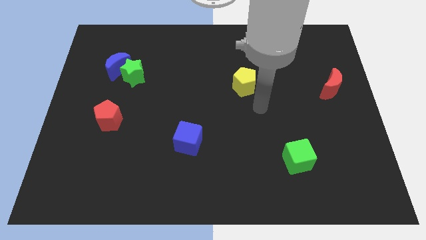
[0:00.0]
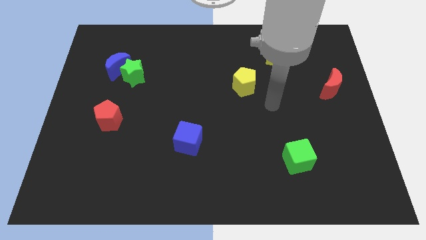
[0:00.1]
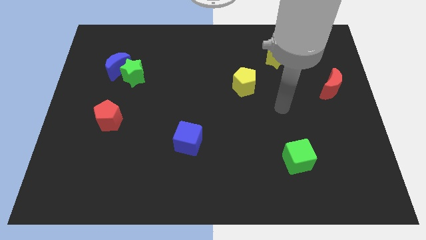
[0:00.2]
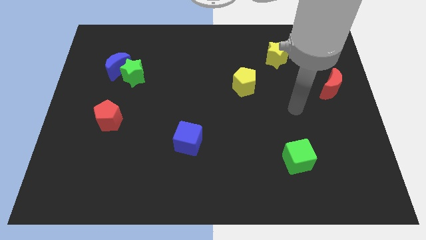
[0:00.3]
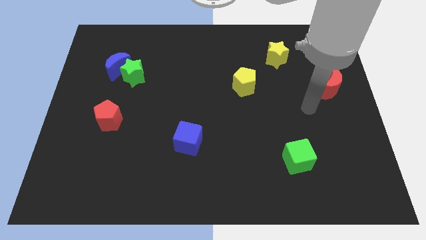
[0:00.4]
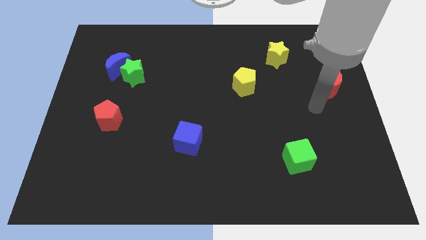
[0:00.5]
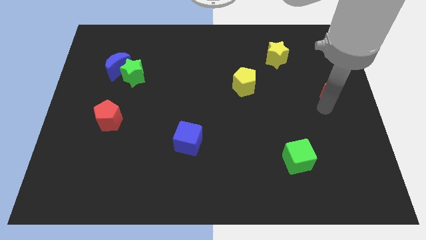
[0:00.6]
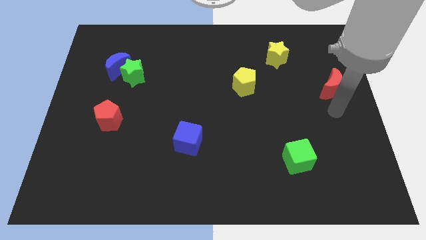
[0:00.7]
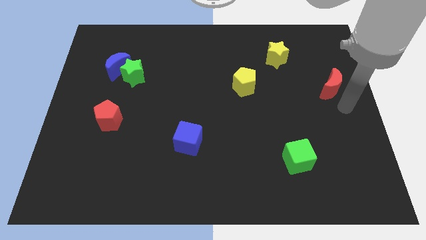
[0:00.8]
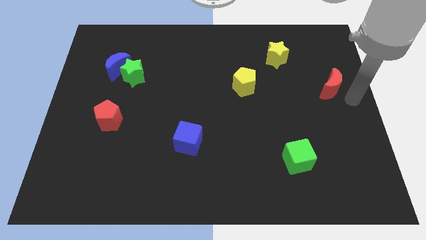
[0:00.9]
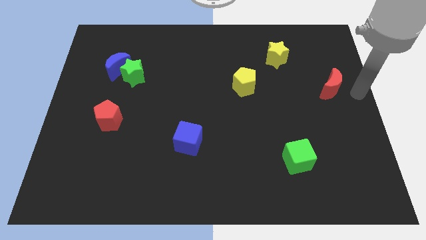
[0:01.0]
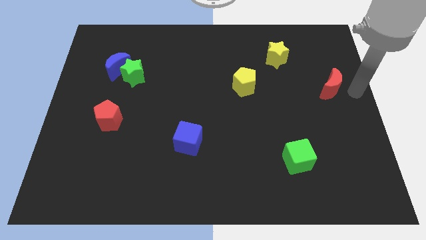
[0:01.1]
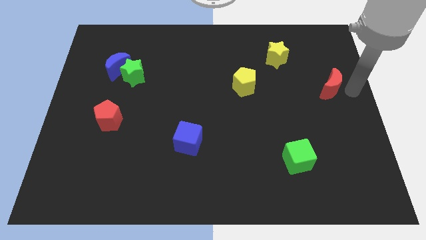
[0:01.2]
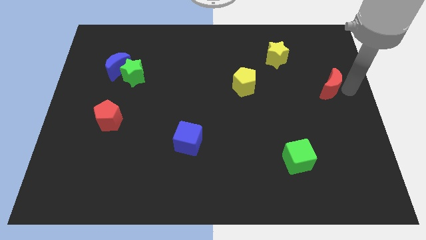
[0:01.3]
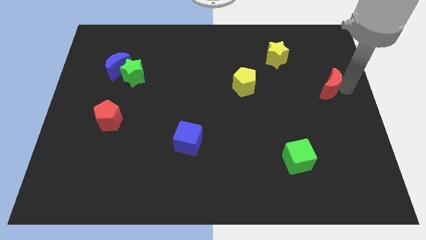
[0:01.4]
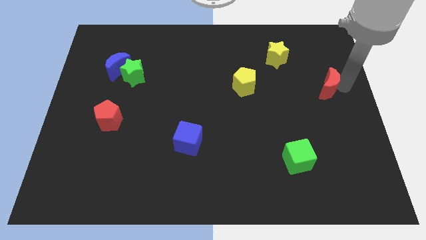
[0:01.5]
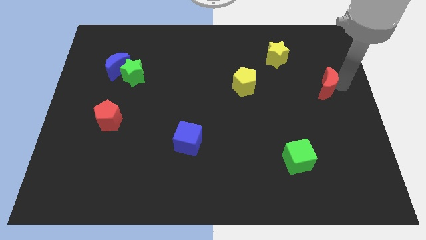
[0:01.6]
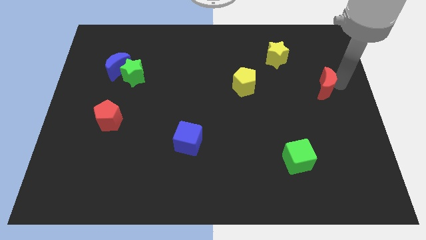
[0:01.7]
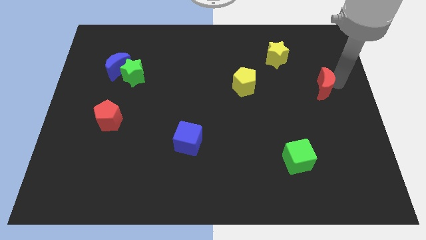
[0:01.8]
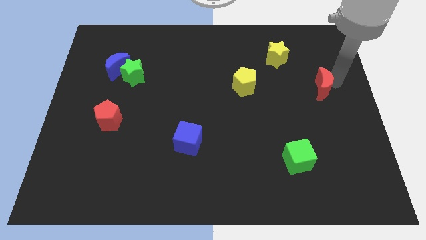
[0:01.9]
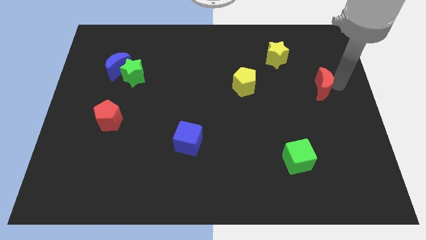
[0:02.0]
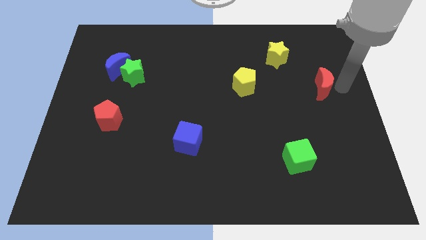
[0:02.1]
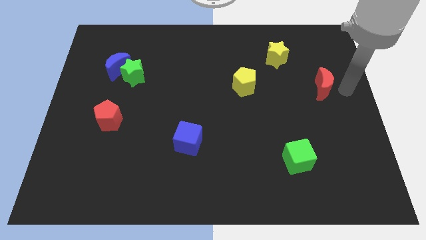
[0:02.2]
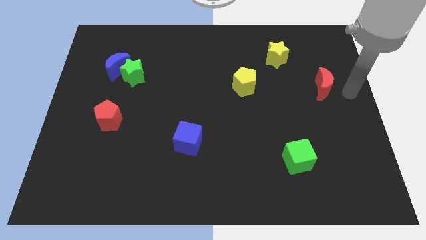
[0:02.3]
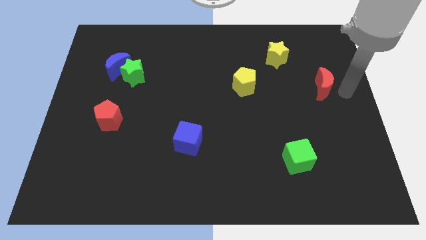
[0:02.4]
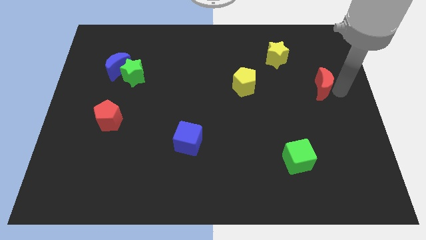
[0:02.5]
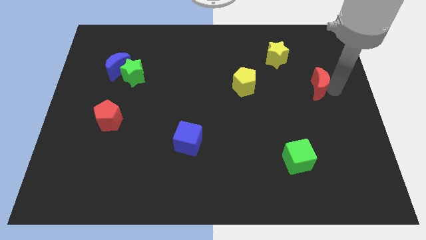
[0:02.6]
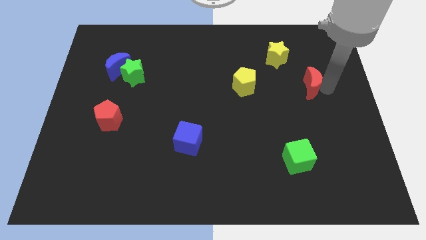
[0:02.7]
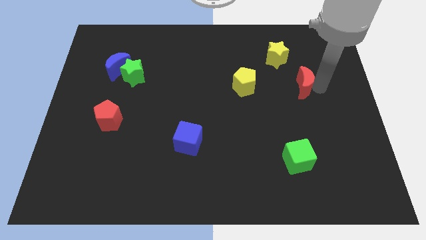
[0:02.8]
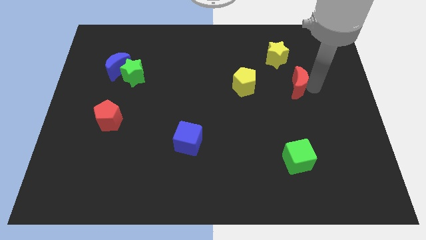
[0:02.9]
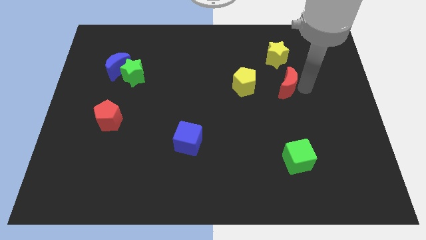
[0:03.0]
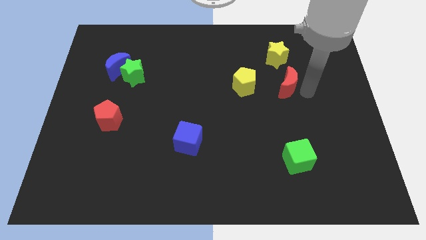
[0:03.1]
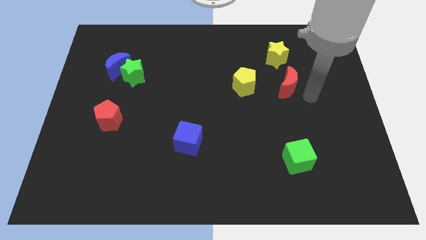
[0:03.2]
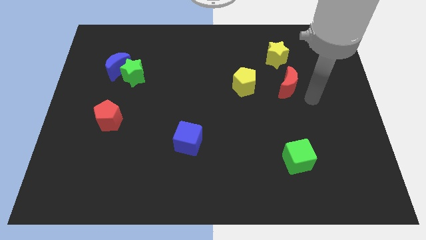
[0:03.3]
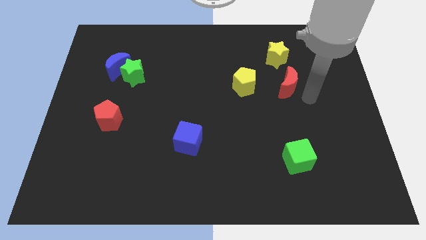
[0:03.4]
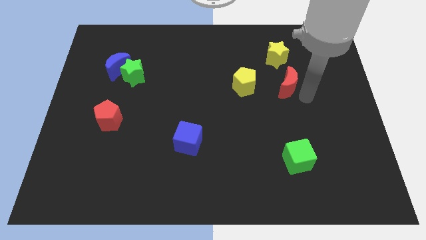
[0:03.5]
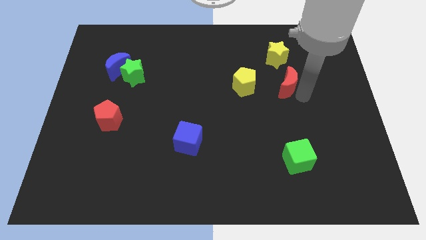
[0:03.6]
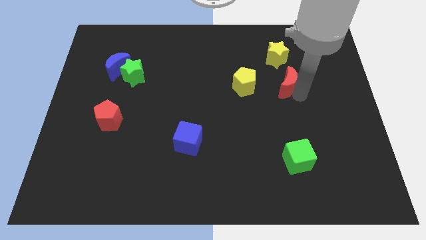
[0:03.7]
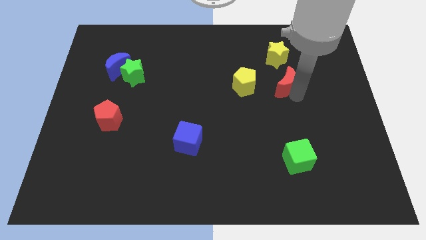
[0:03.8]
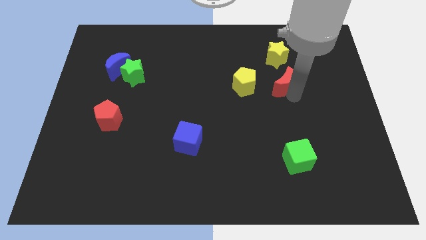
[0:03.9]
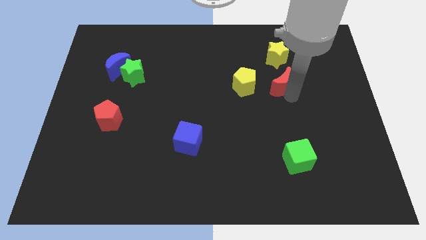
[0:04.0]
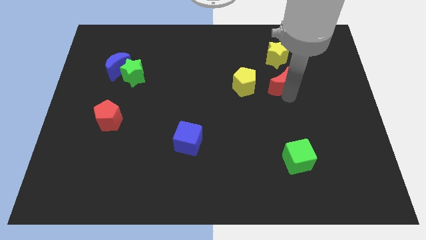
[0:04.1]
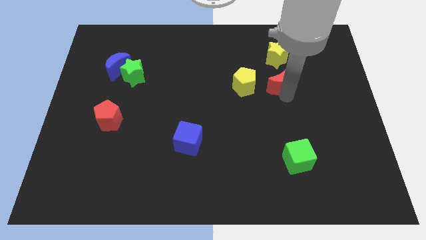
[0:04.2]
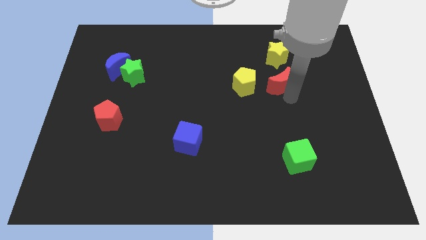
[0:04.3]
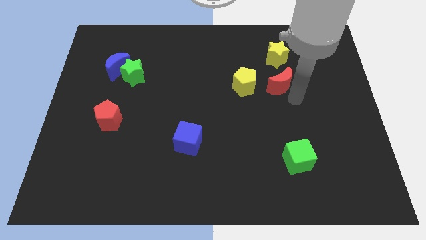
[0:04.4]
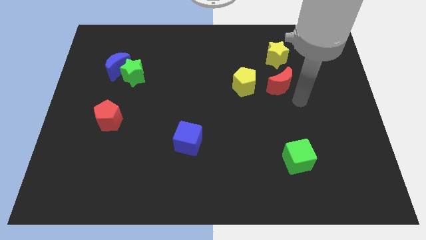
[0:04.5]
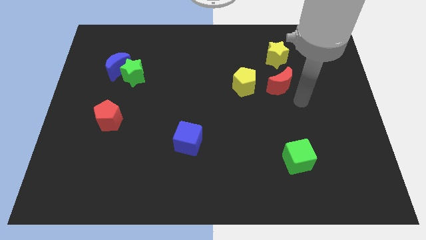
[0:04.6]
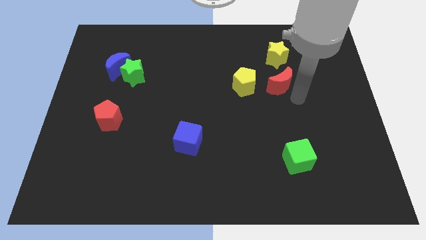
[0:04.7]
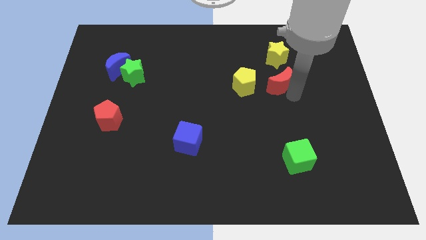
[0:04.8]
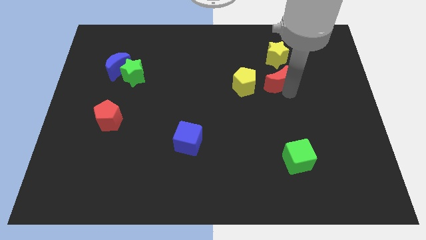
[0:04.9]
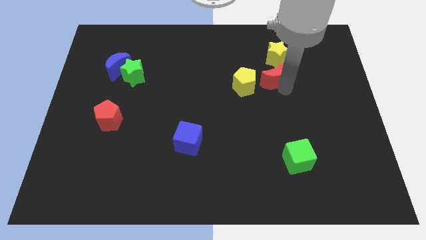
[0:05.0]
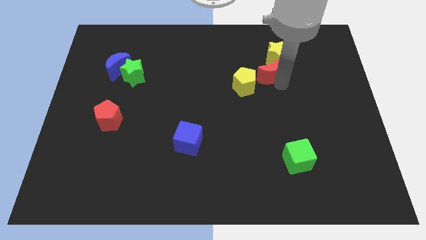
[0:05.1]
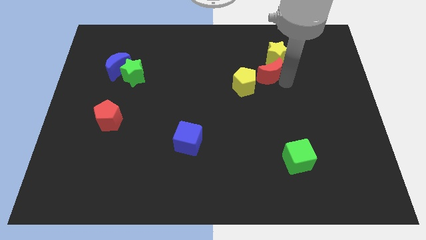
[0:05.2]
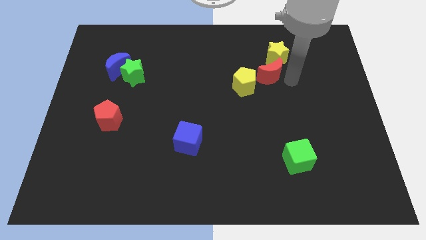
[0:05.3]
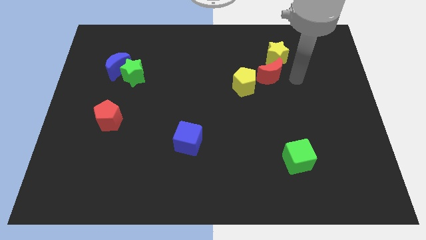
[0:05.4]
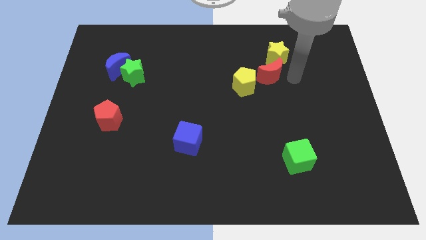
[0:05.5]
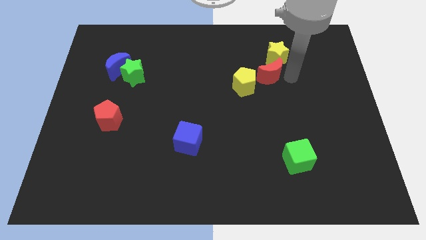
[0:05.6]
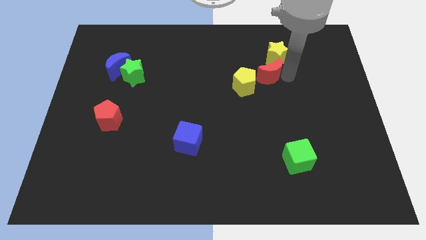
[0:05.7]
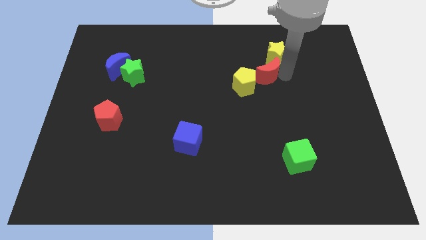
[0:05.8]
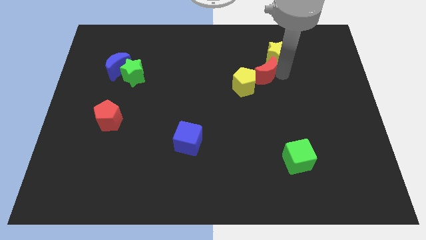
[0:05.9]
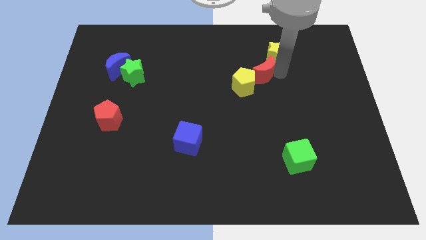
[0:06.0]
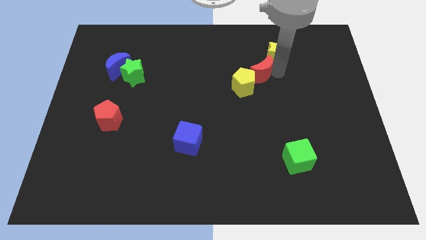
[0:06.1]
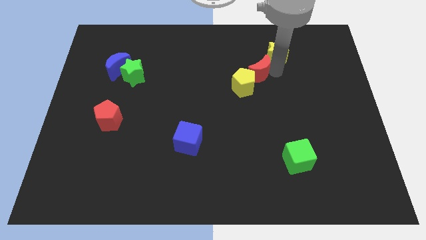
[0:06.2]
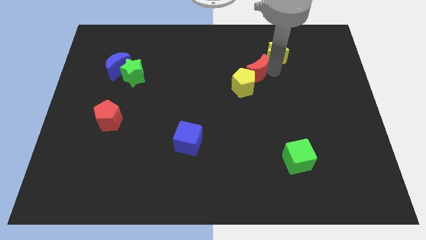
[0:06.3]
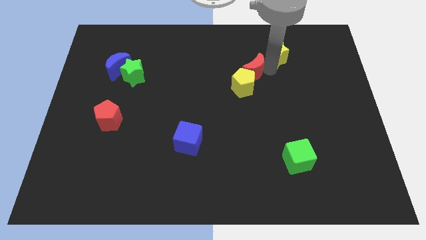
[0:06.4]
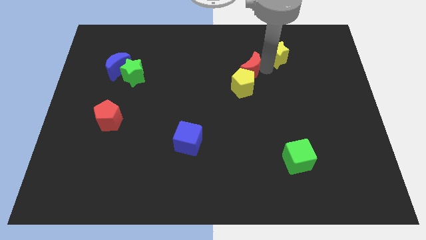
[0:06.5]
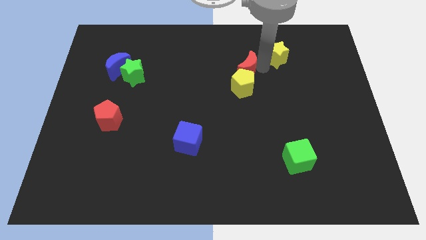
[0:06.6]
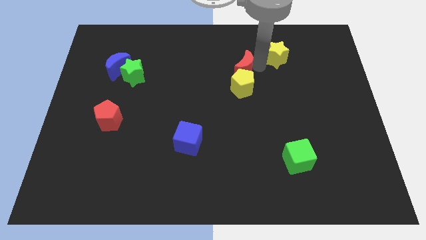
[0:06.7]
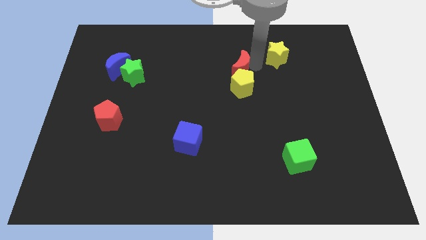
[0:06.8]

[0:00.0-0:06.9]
push the red moon to the left

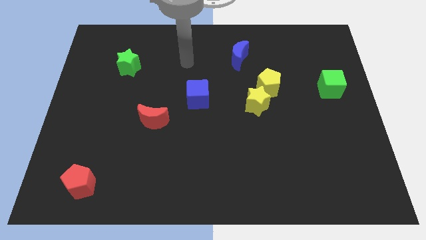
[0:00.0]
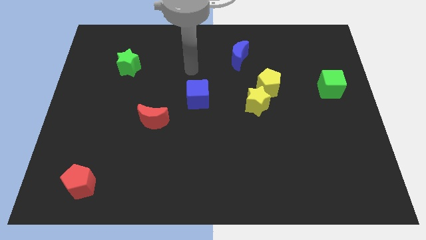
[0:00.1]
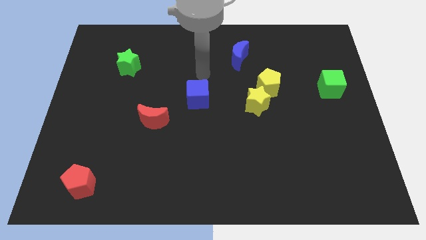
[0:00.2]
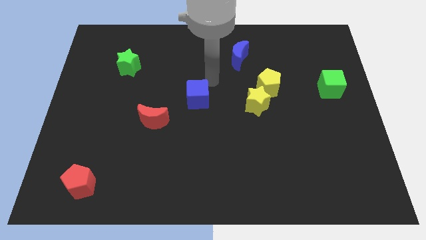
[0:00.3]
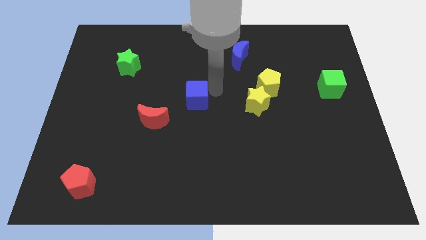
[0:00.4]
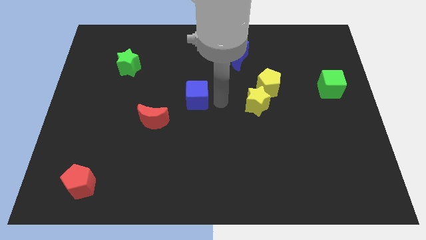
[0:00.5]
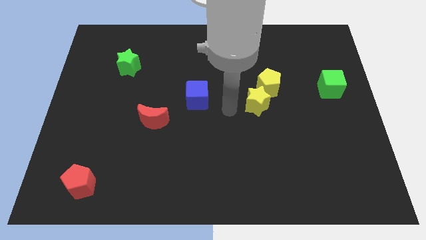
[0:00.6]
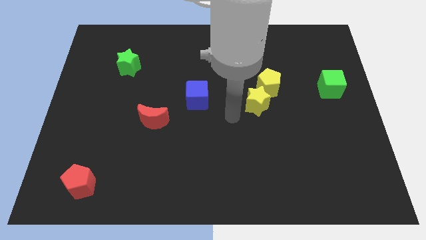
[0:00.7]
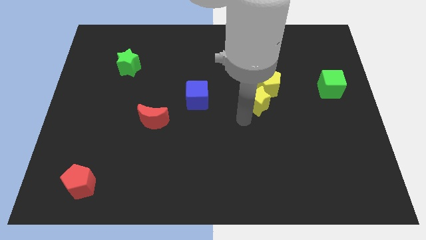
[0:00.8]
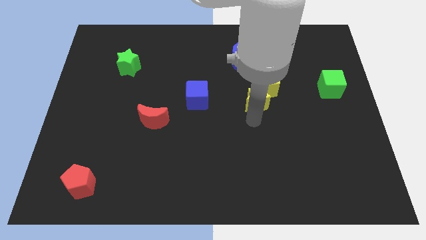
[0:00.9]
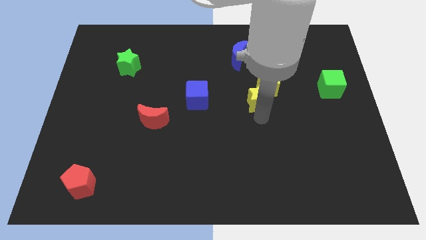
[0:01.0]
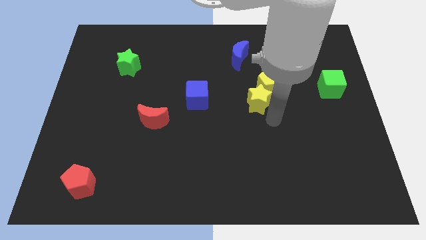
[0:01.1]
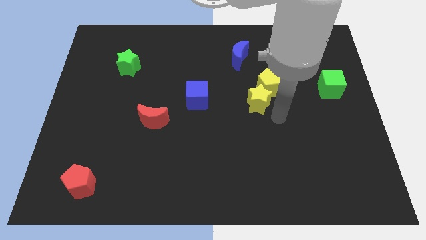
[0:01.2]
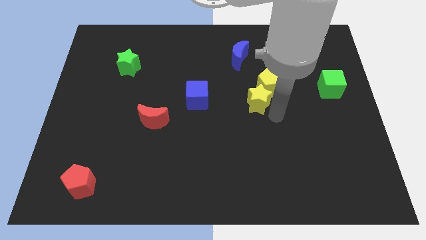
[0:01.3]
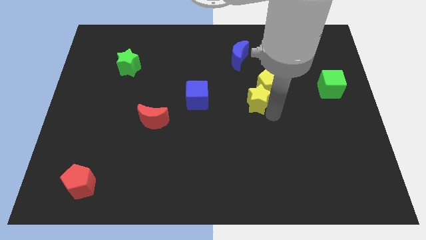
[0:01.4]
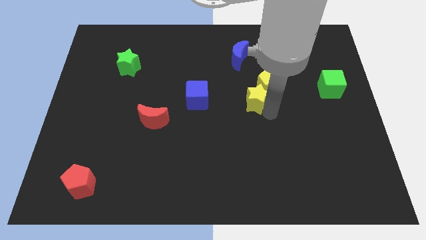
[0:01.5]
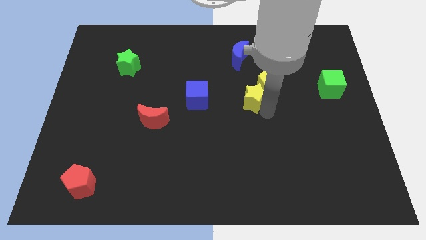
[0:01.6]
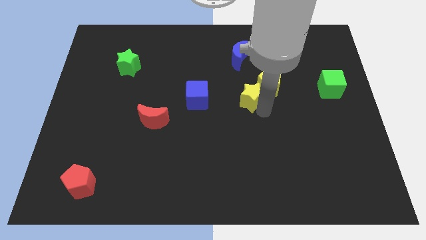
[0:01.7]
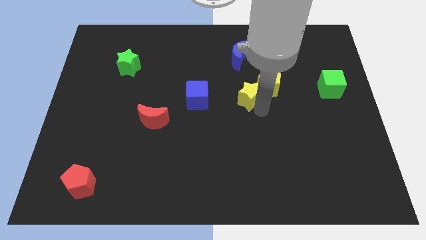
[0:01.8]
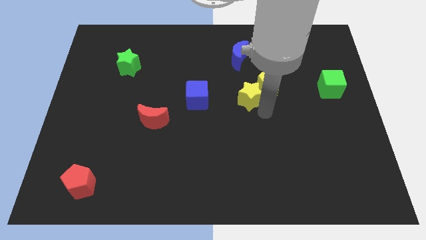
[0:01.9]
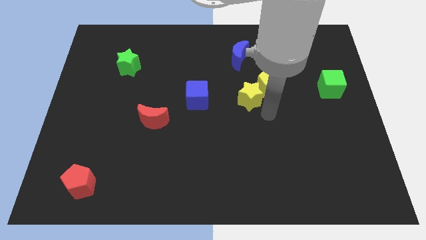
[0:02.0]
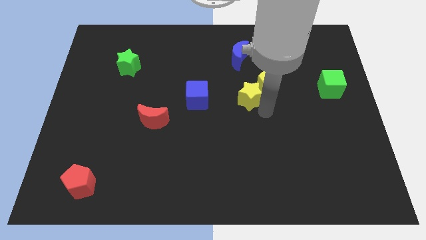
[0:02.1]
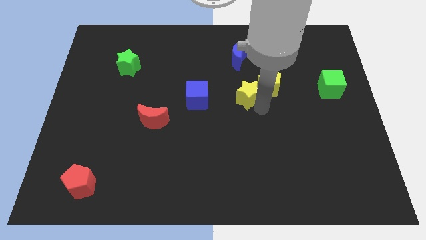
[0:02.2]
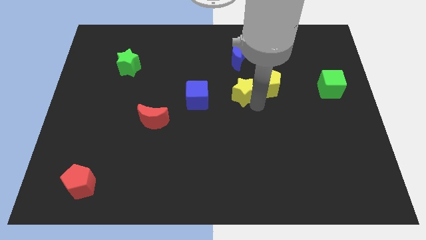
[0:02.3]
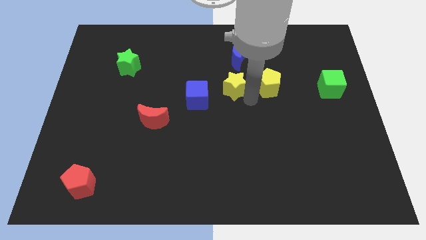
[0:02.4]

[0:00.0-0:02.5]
push the yellow star slightly upwards and to the left diagonally
